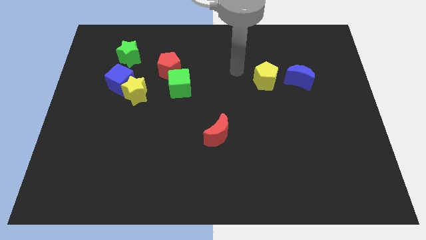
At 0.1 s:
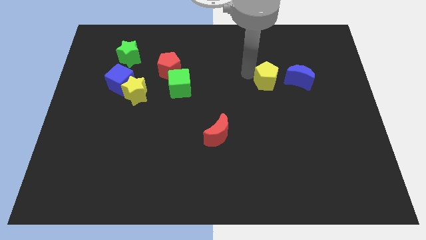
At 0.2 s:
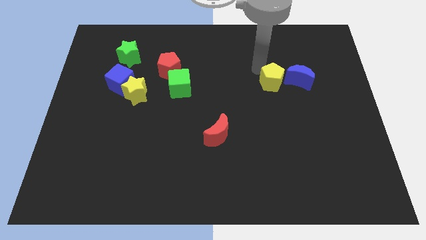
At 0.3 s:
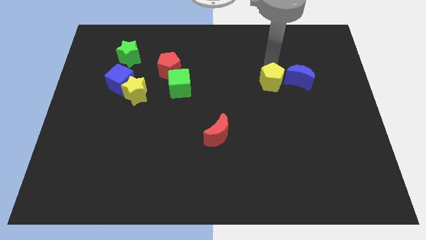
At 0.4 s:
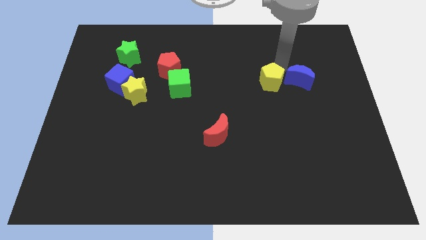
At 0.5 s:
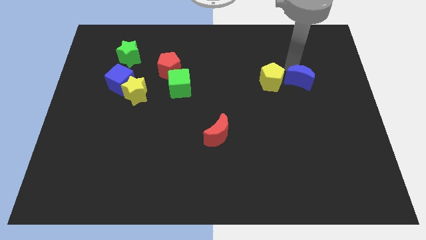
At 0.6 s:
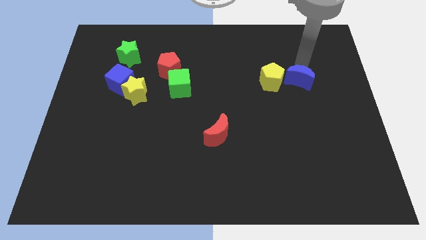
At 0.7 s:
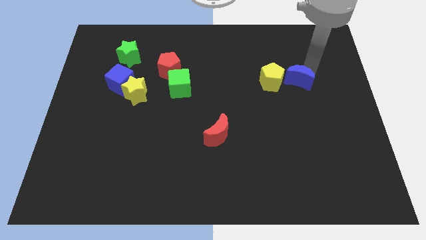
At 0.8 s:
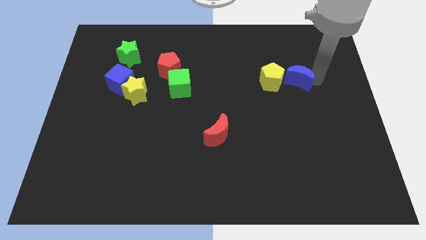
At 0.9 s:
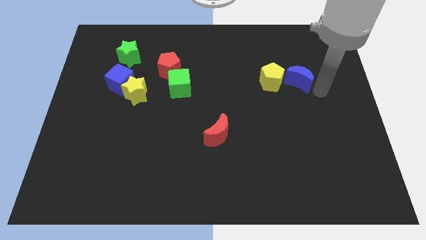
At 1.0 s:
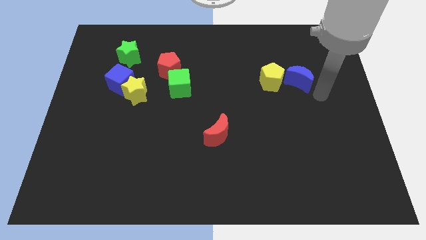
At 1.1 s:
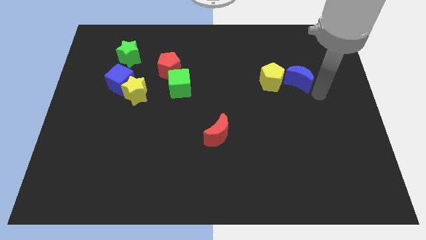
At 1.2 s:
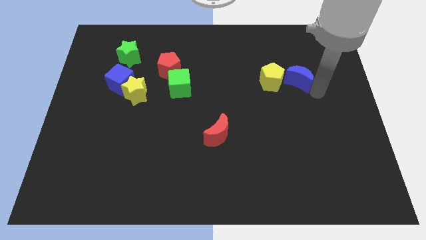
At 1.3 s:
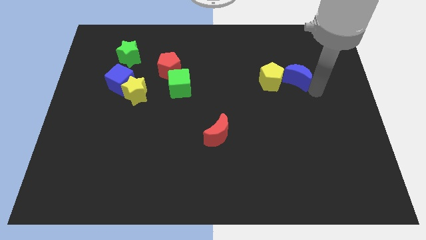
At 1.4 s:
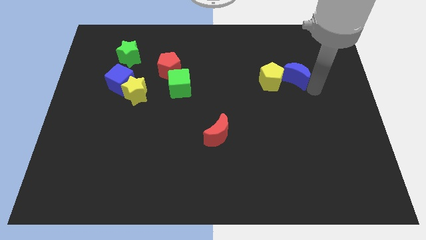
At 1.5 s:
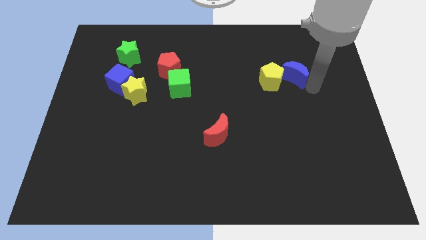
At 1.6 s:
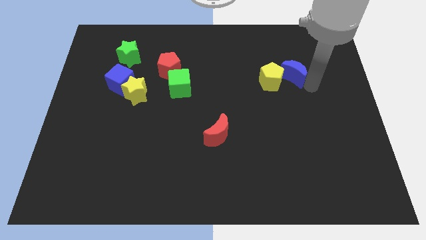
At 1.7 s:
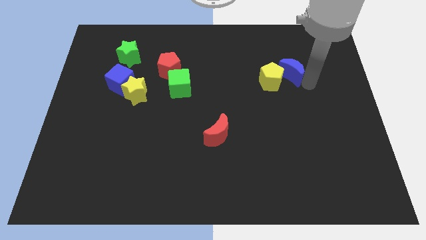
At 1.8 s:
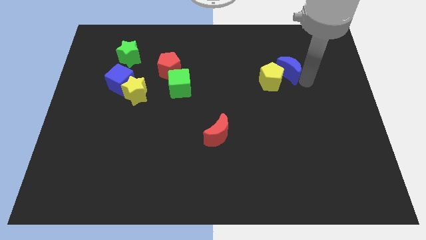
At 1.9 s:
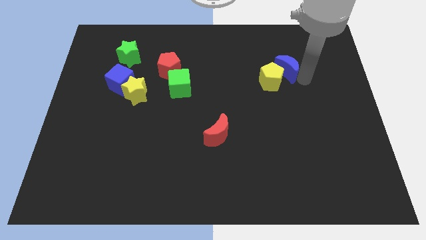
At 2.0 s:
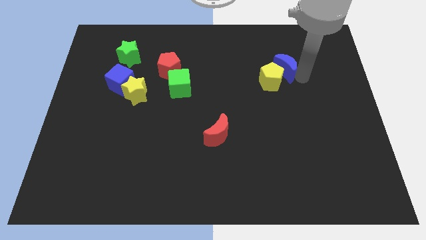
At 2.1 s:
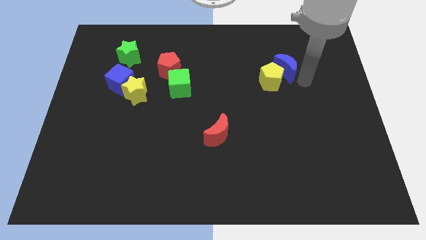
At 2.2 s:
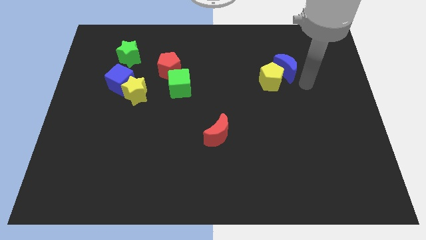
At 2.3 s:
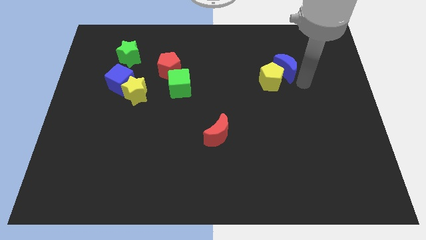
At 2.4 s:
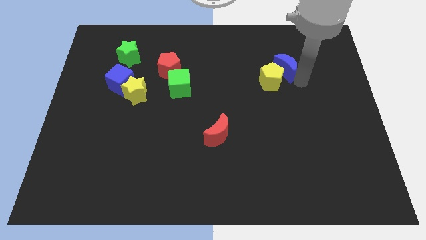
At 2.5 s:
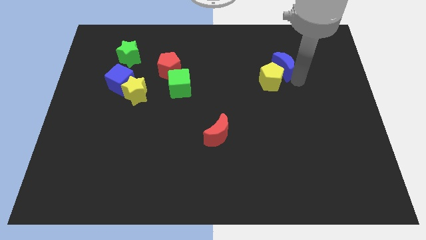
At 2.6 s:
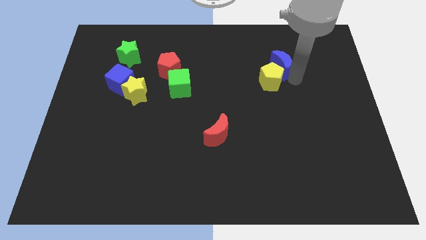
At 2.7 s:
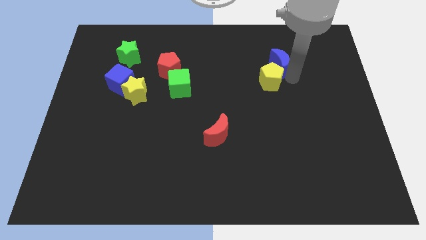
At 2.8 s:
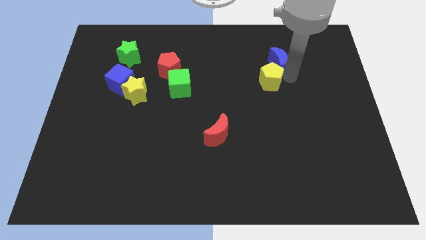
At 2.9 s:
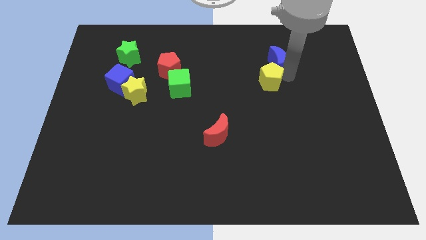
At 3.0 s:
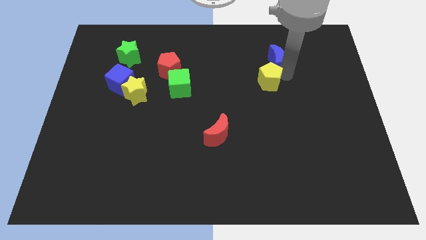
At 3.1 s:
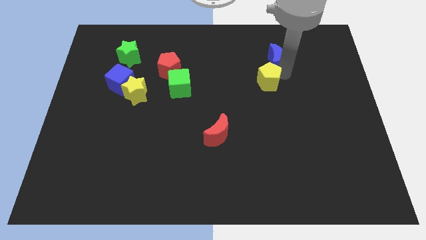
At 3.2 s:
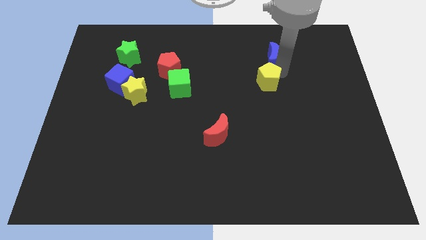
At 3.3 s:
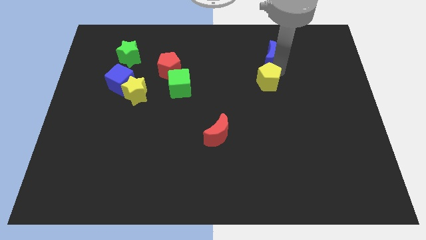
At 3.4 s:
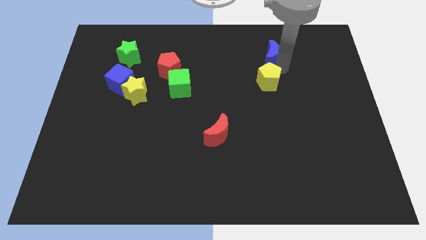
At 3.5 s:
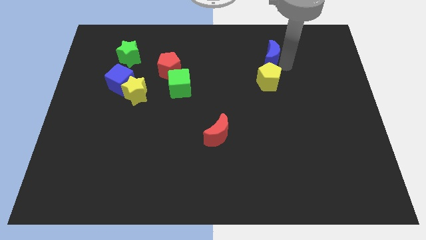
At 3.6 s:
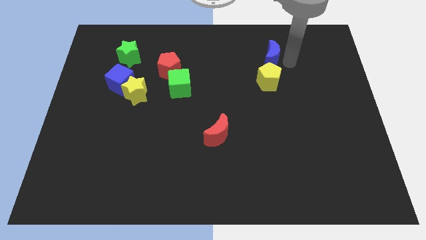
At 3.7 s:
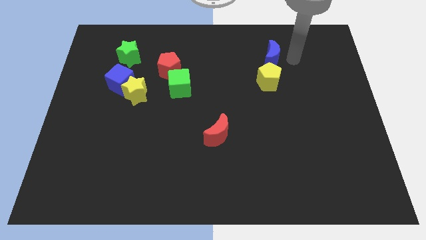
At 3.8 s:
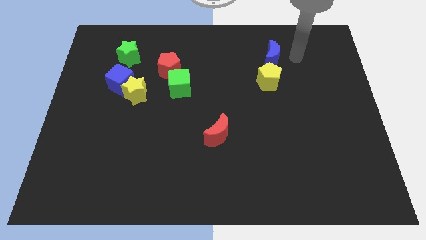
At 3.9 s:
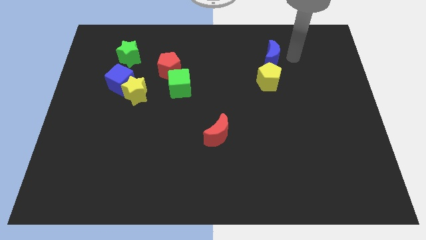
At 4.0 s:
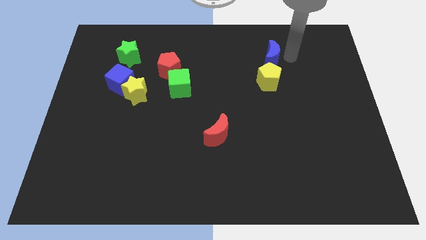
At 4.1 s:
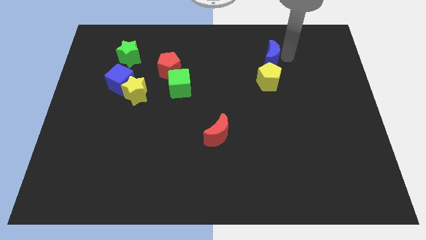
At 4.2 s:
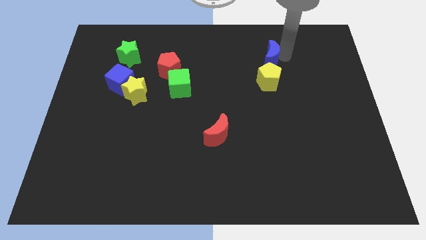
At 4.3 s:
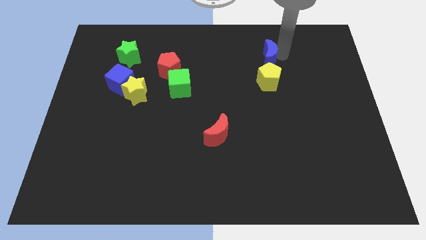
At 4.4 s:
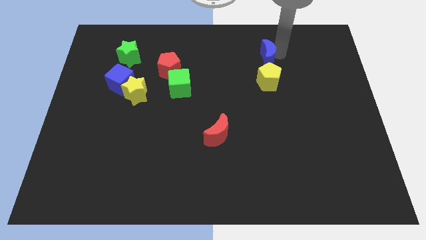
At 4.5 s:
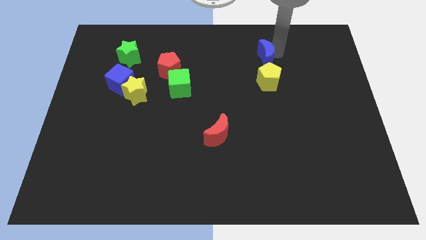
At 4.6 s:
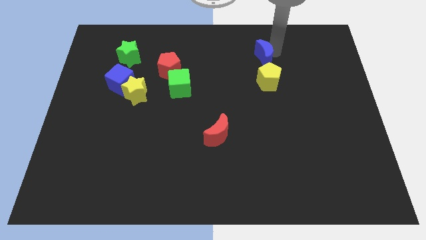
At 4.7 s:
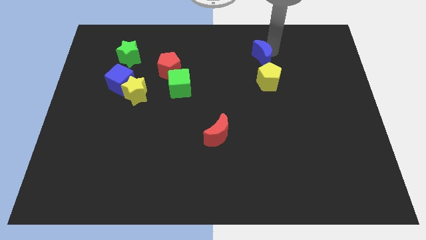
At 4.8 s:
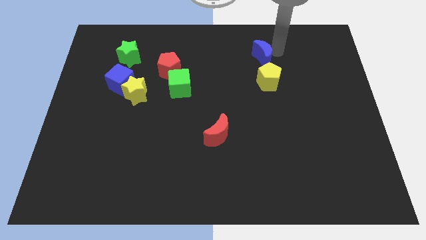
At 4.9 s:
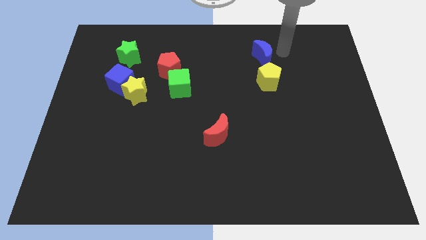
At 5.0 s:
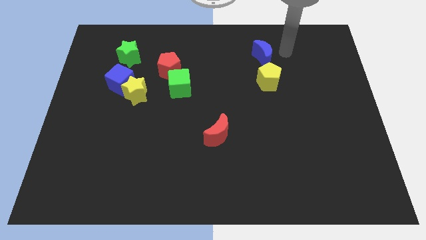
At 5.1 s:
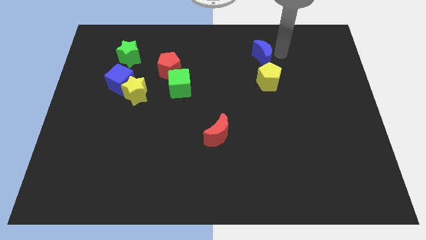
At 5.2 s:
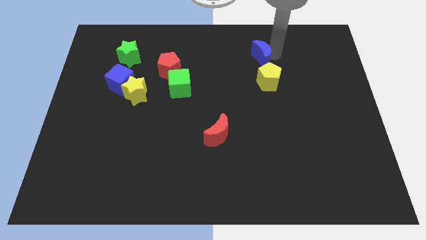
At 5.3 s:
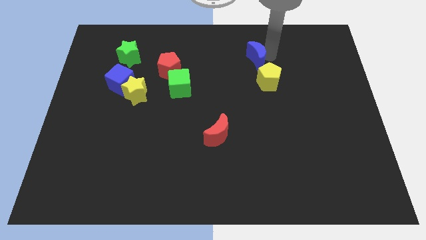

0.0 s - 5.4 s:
slightly move the blue moon to the left

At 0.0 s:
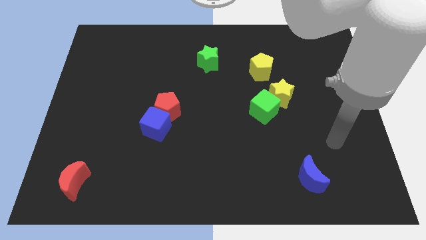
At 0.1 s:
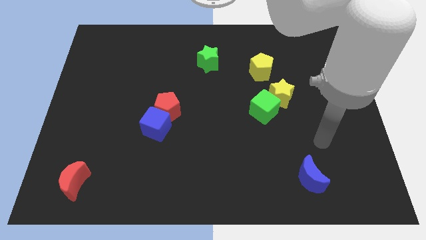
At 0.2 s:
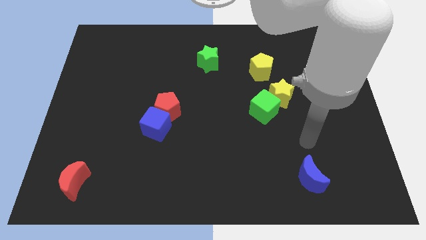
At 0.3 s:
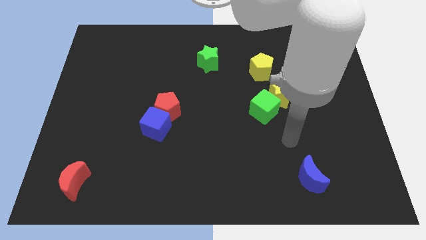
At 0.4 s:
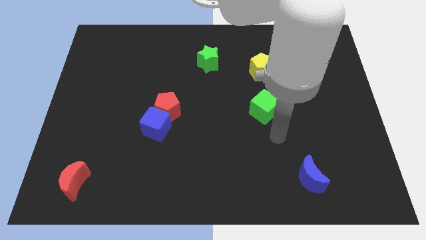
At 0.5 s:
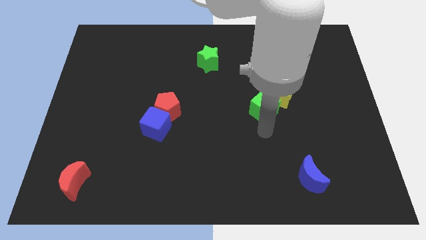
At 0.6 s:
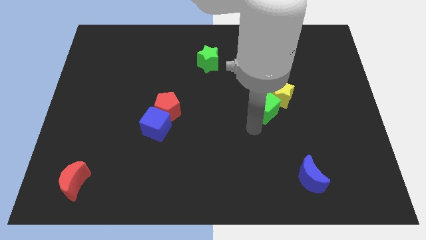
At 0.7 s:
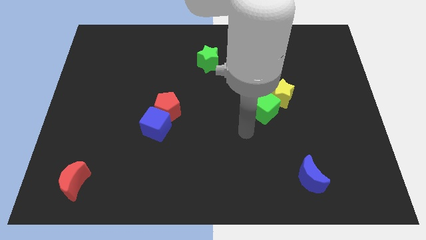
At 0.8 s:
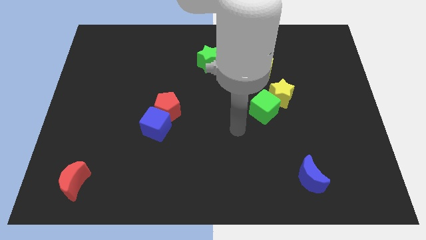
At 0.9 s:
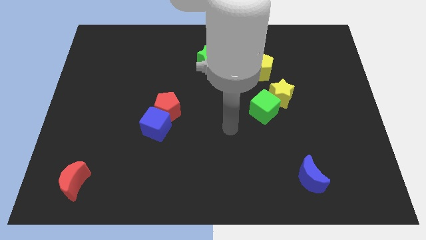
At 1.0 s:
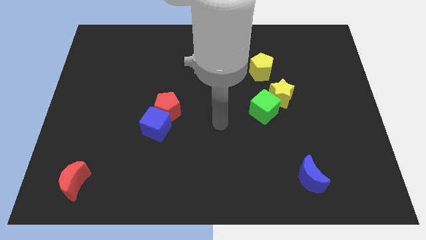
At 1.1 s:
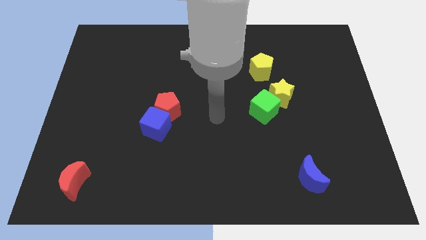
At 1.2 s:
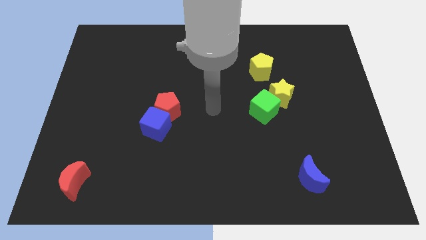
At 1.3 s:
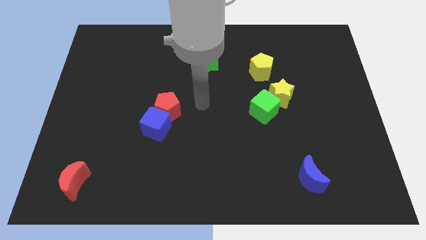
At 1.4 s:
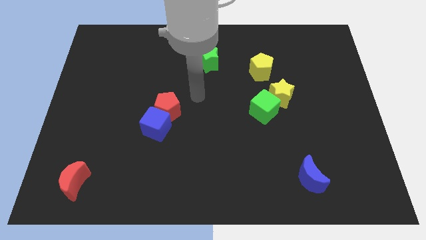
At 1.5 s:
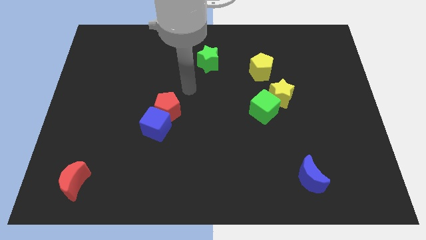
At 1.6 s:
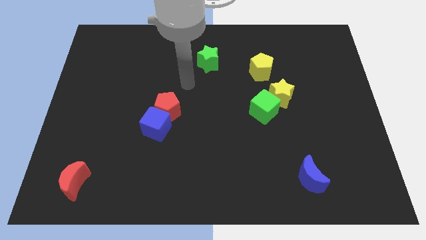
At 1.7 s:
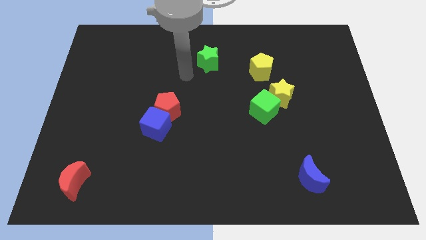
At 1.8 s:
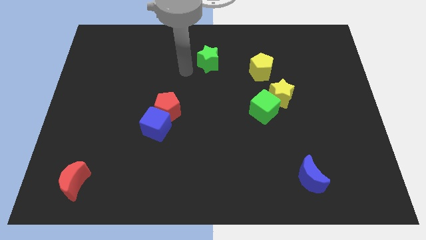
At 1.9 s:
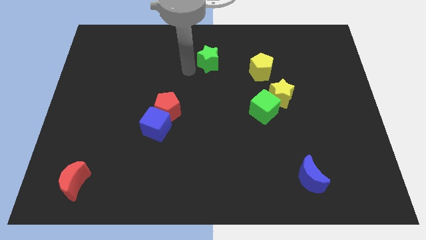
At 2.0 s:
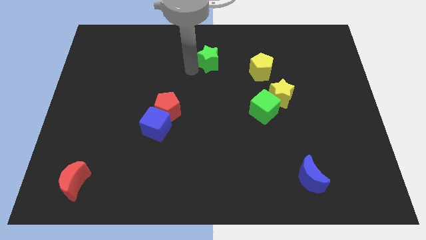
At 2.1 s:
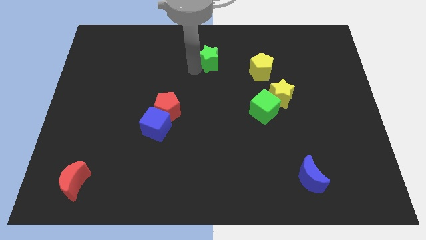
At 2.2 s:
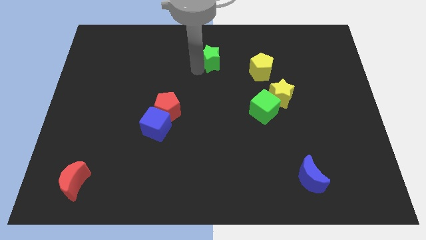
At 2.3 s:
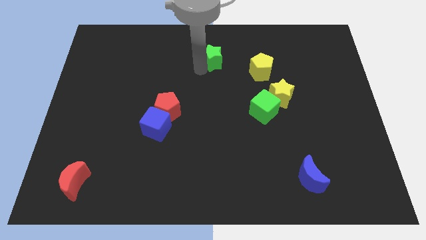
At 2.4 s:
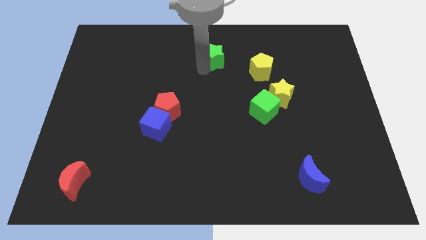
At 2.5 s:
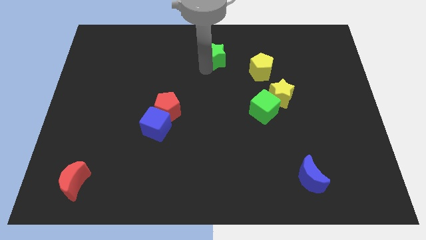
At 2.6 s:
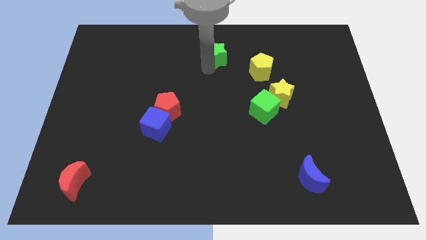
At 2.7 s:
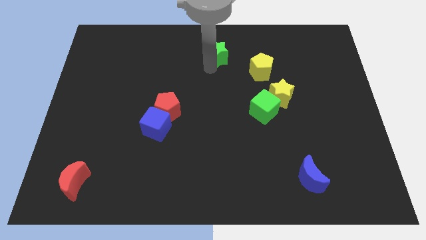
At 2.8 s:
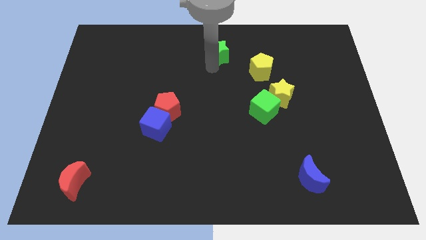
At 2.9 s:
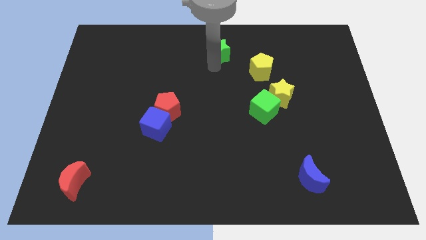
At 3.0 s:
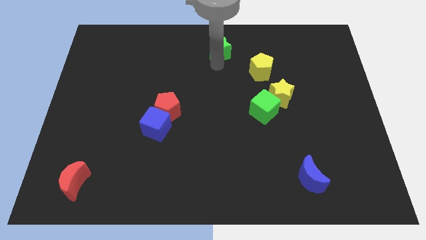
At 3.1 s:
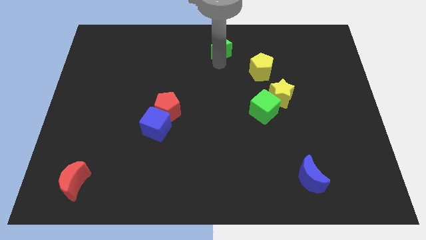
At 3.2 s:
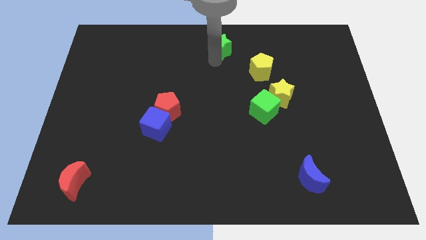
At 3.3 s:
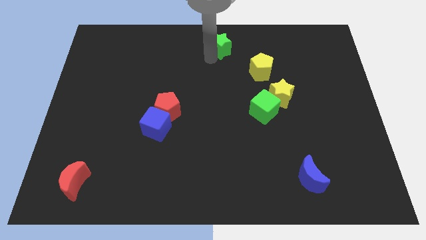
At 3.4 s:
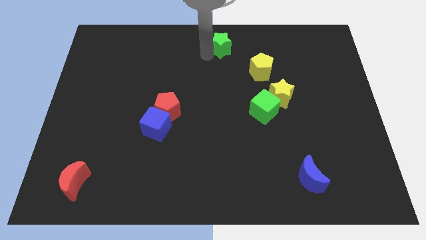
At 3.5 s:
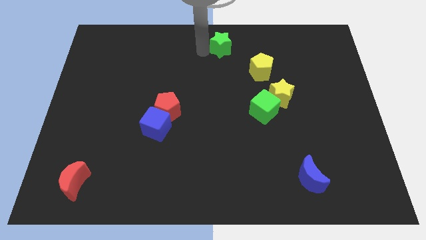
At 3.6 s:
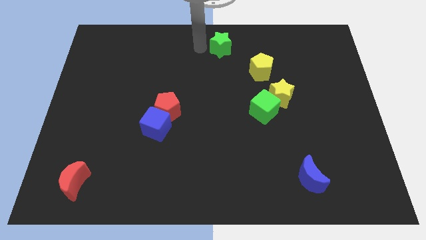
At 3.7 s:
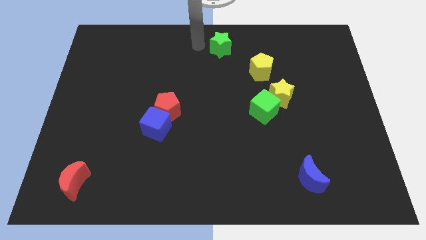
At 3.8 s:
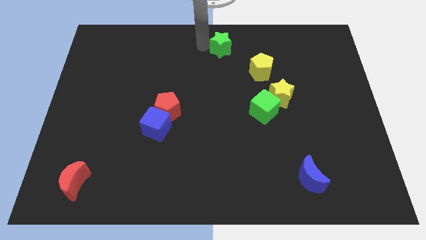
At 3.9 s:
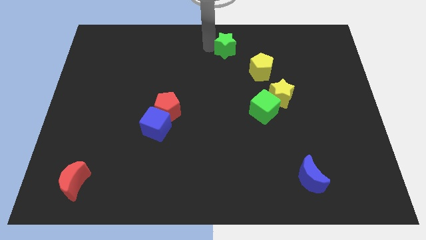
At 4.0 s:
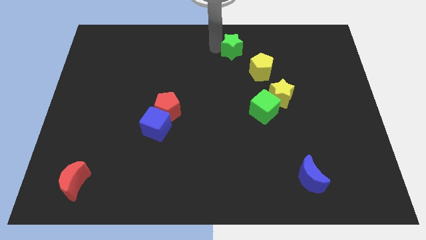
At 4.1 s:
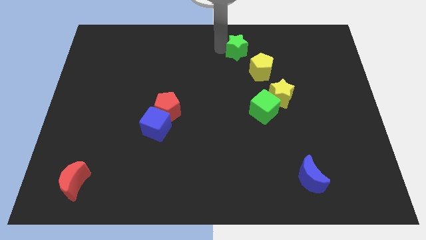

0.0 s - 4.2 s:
move the green star right somewhat
